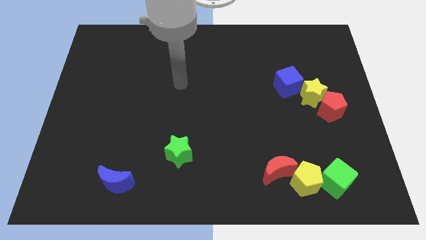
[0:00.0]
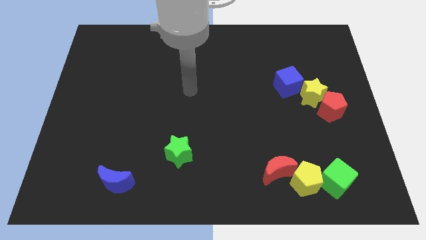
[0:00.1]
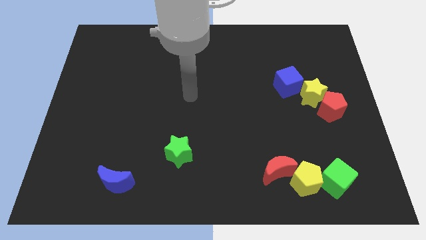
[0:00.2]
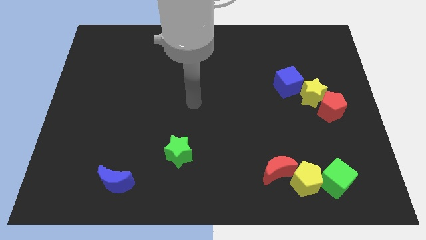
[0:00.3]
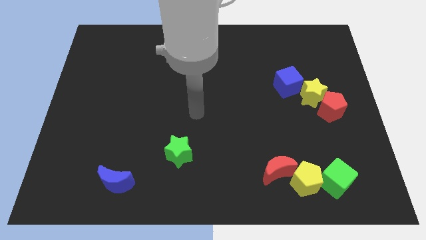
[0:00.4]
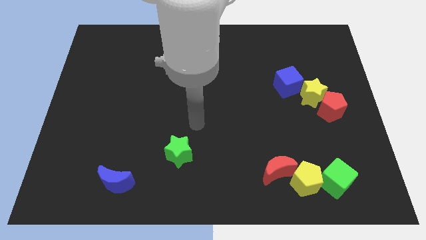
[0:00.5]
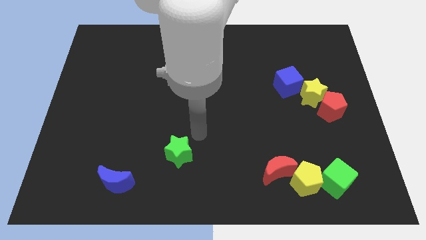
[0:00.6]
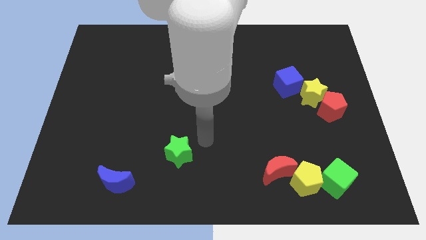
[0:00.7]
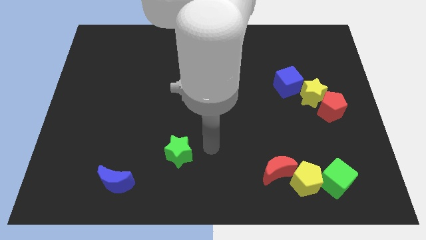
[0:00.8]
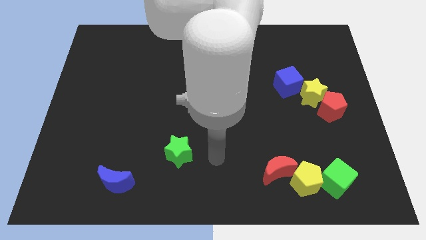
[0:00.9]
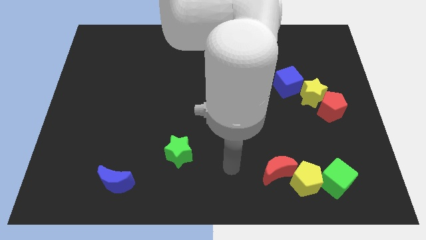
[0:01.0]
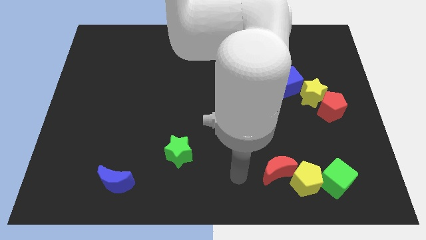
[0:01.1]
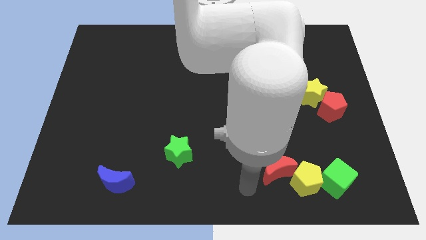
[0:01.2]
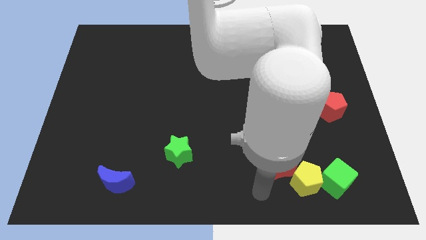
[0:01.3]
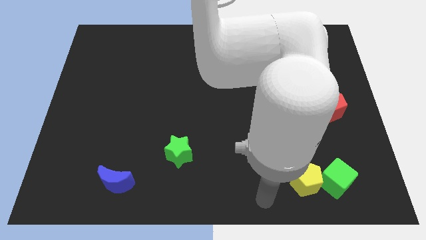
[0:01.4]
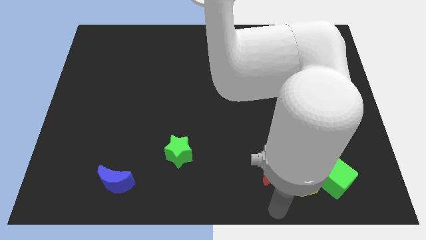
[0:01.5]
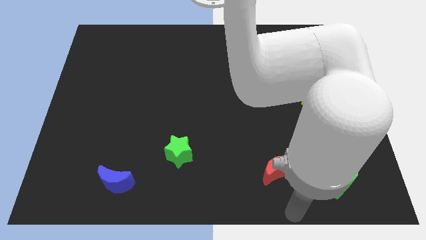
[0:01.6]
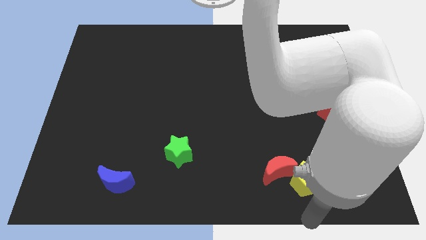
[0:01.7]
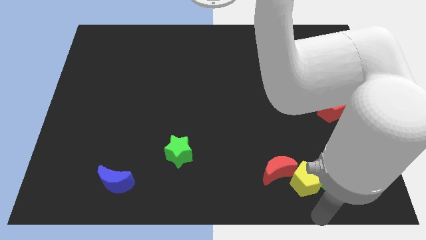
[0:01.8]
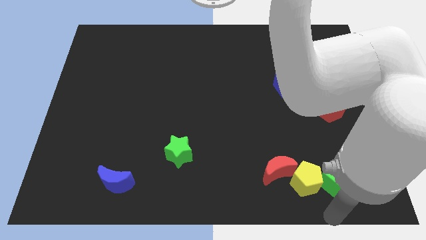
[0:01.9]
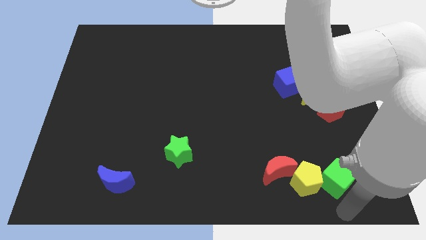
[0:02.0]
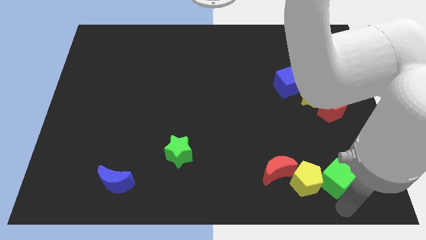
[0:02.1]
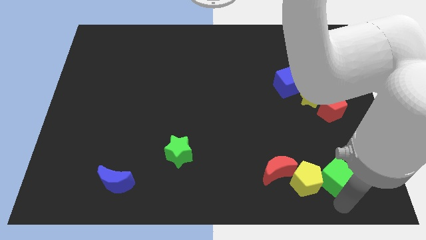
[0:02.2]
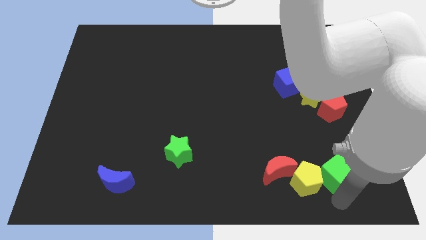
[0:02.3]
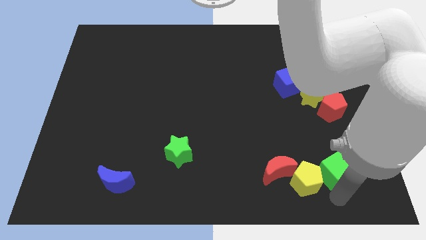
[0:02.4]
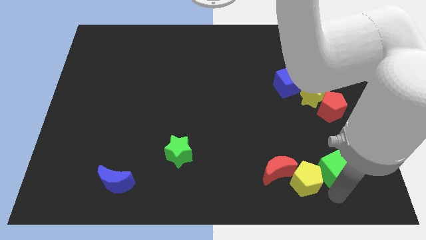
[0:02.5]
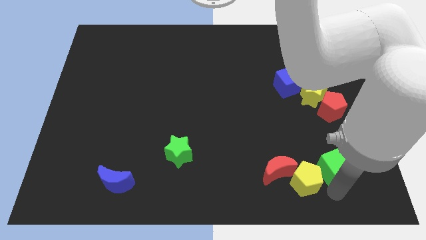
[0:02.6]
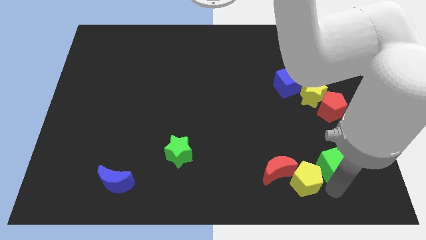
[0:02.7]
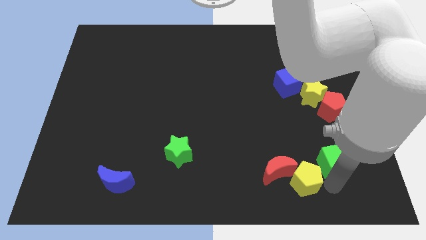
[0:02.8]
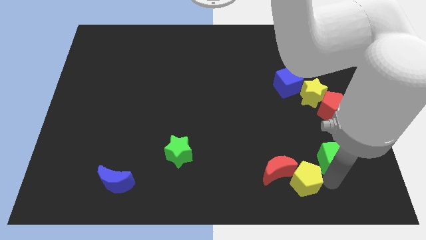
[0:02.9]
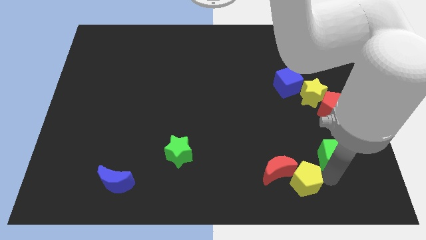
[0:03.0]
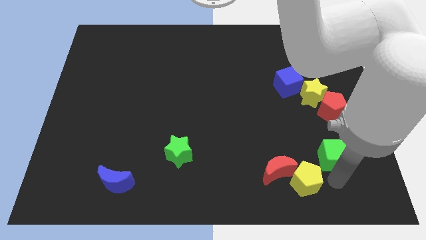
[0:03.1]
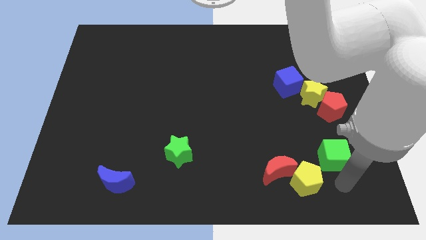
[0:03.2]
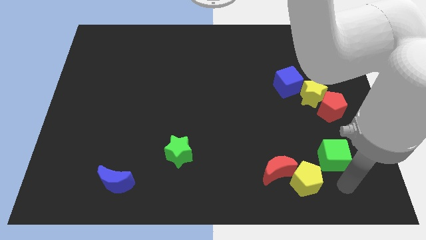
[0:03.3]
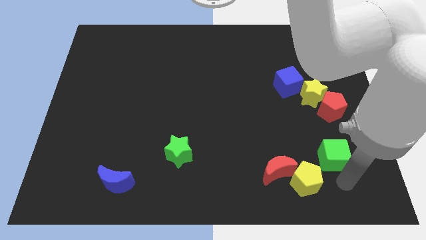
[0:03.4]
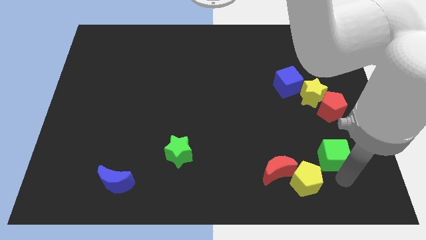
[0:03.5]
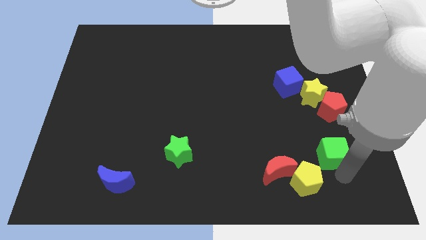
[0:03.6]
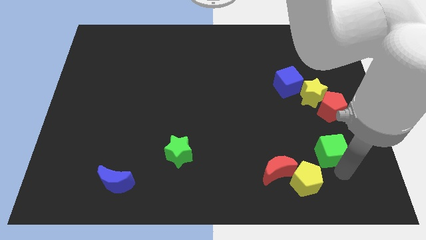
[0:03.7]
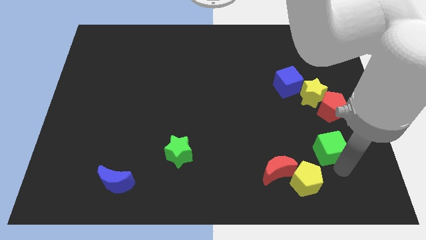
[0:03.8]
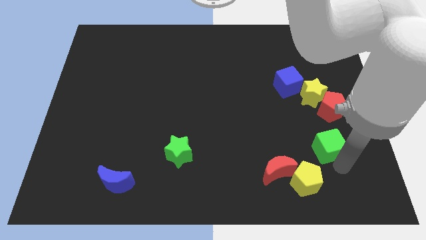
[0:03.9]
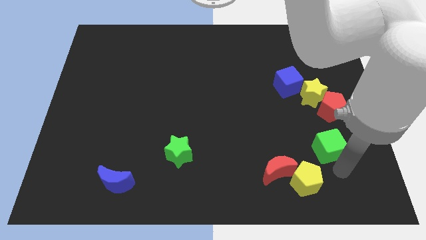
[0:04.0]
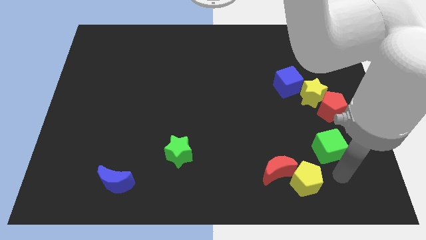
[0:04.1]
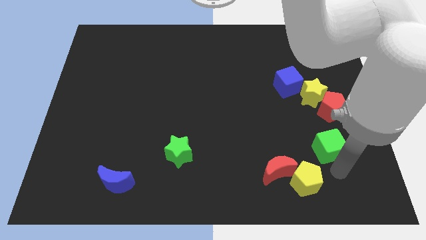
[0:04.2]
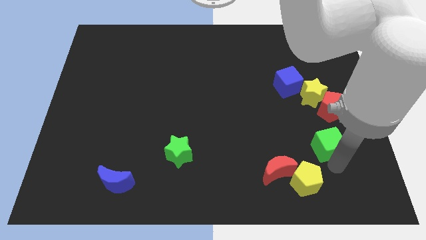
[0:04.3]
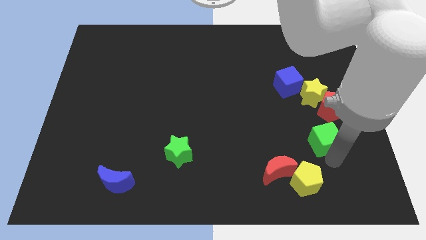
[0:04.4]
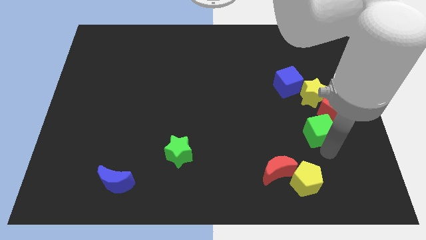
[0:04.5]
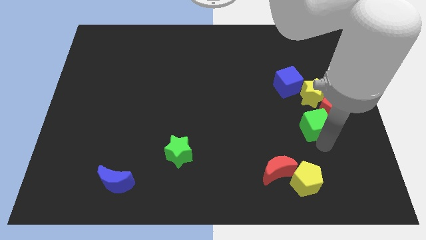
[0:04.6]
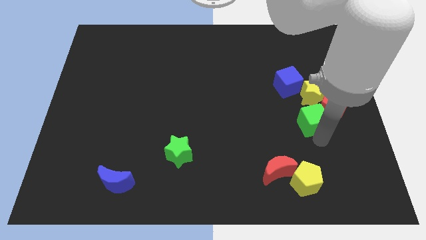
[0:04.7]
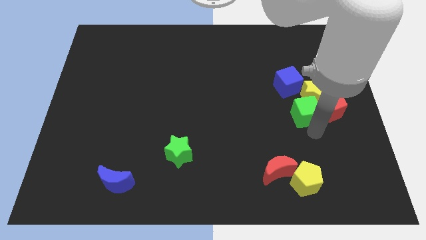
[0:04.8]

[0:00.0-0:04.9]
slide the green cube close to the yellow star

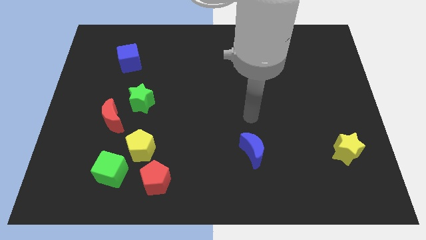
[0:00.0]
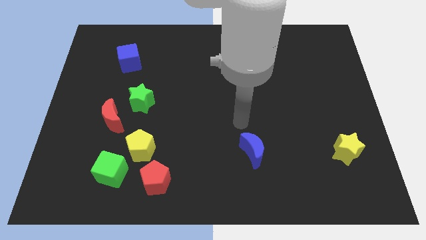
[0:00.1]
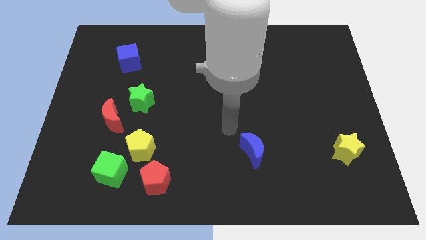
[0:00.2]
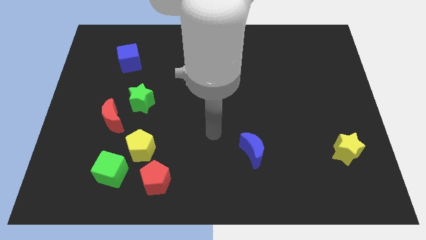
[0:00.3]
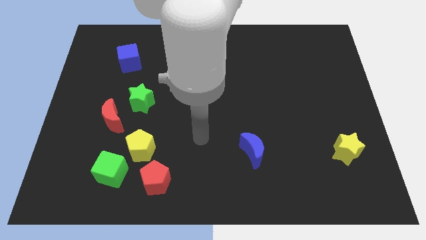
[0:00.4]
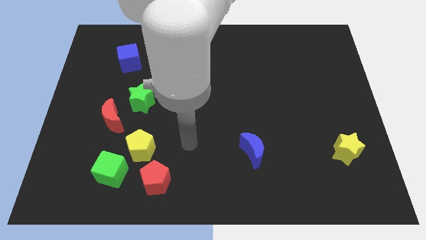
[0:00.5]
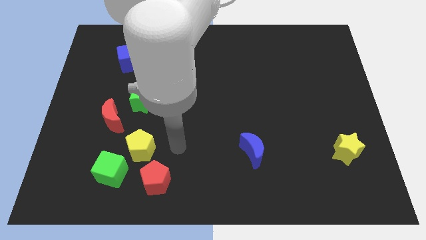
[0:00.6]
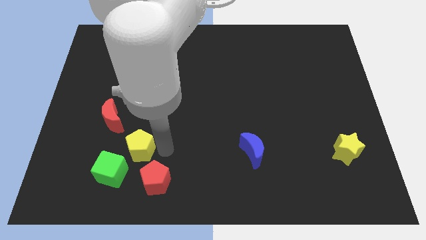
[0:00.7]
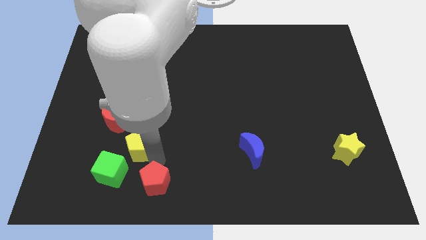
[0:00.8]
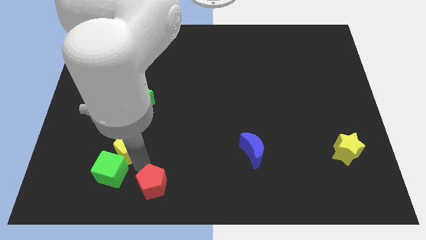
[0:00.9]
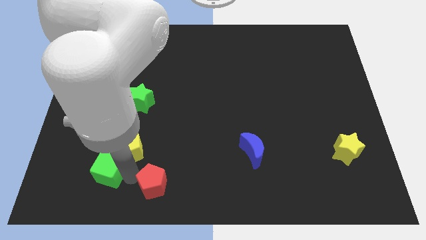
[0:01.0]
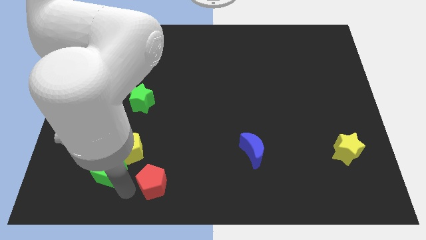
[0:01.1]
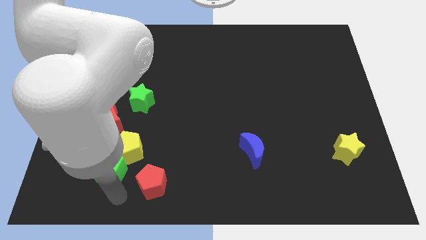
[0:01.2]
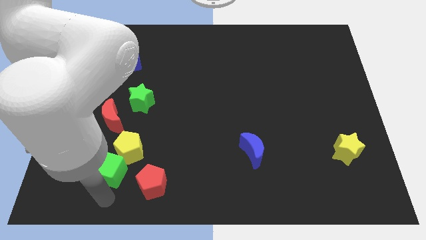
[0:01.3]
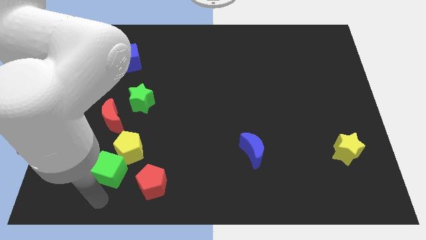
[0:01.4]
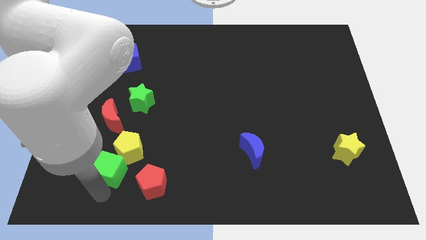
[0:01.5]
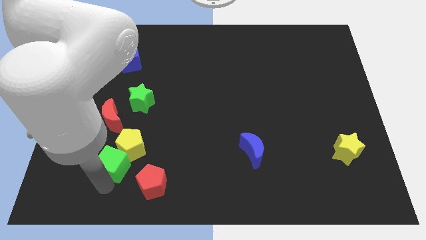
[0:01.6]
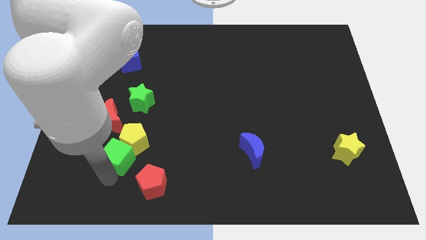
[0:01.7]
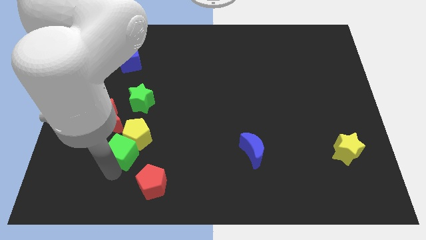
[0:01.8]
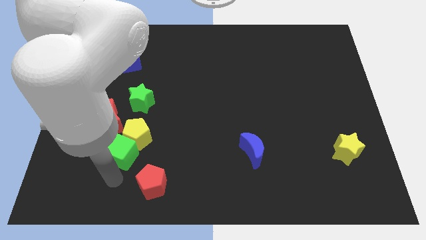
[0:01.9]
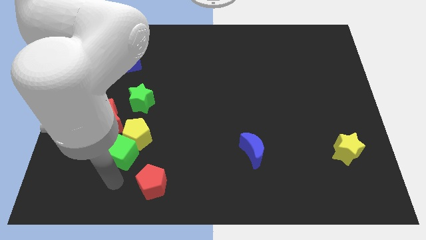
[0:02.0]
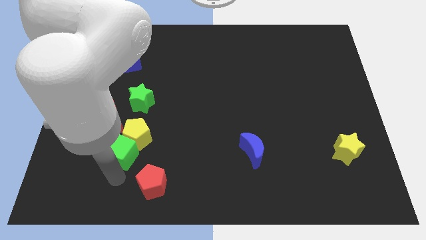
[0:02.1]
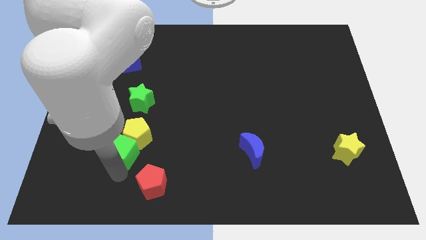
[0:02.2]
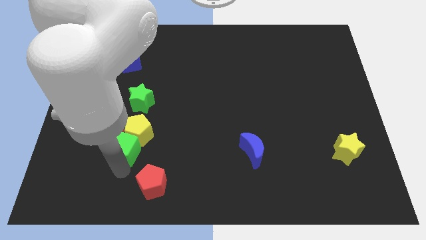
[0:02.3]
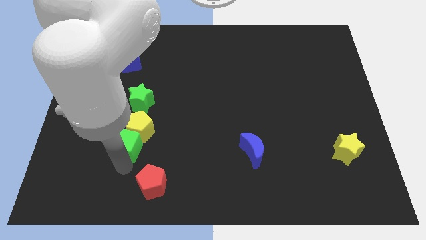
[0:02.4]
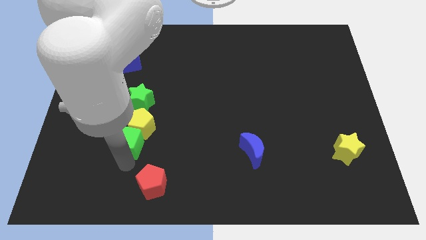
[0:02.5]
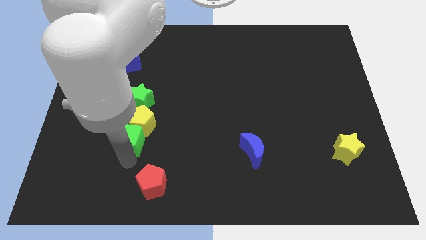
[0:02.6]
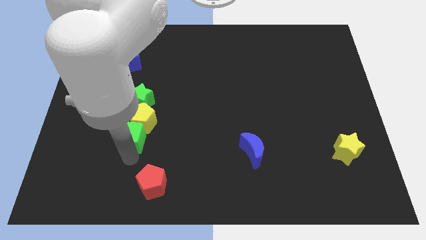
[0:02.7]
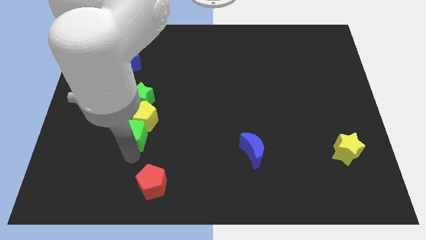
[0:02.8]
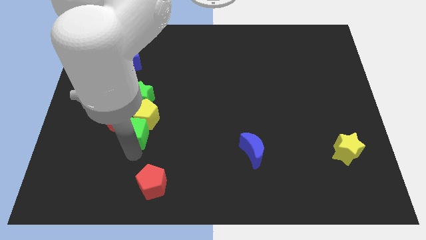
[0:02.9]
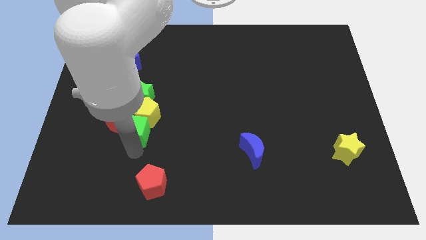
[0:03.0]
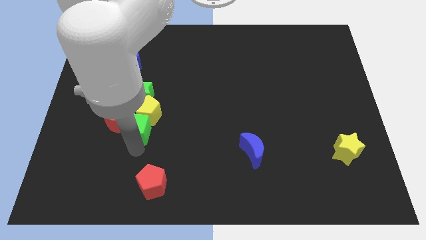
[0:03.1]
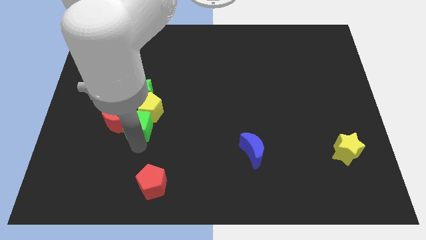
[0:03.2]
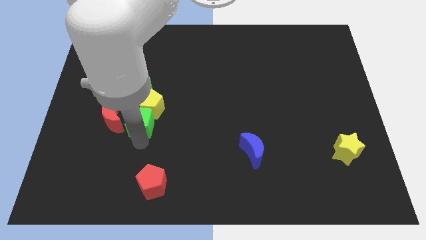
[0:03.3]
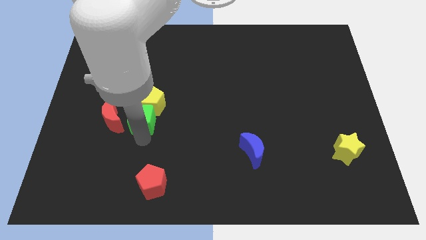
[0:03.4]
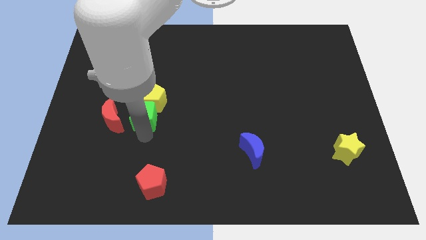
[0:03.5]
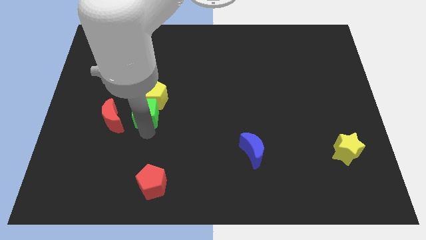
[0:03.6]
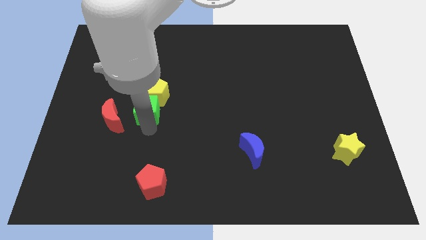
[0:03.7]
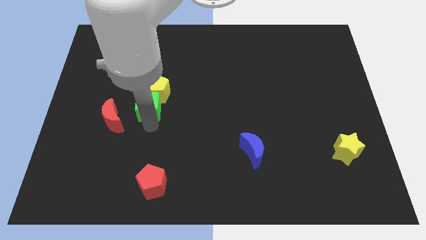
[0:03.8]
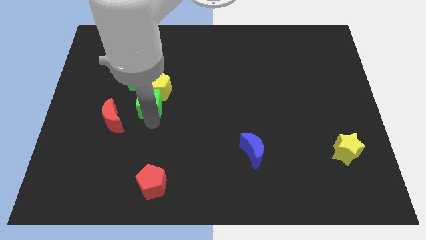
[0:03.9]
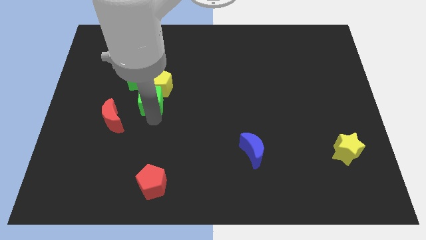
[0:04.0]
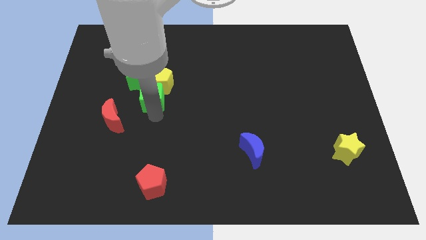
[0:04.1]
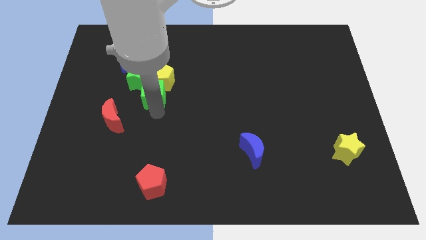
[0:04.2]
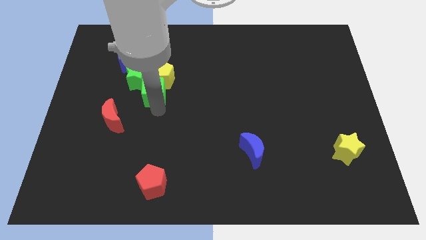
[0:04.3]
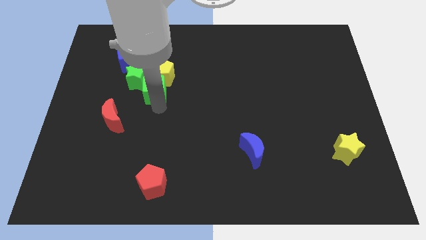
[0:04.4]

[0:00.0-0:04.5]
put the green cube close to the green star
